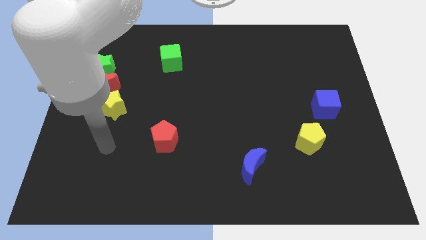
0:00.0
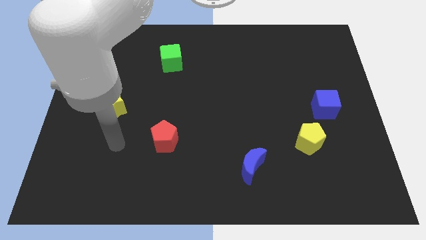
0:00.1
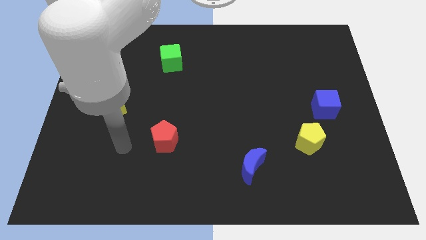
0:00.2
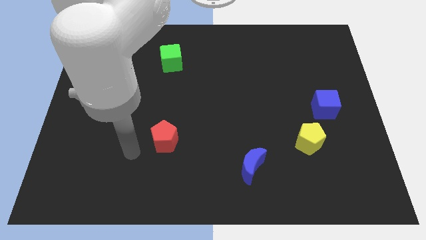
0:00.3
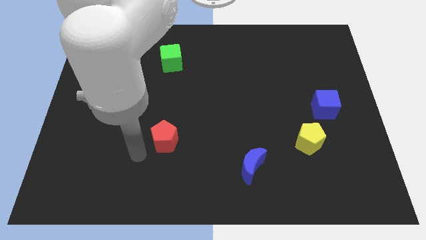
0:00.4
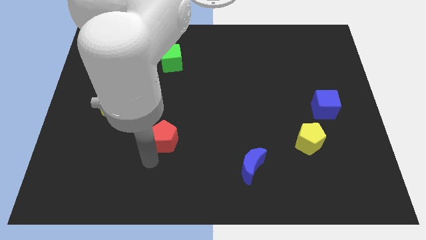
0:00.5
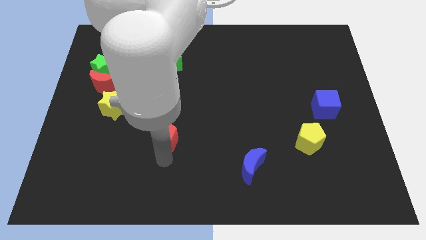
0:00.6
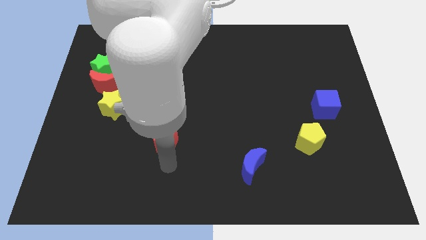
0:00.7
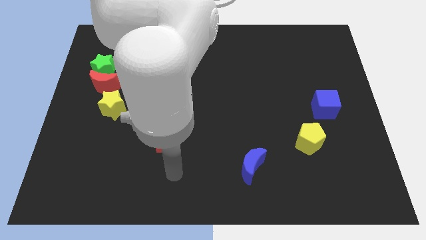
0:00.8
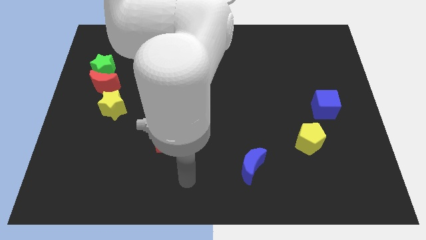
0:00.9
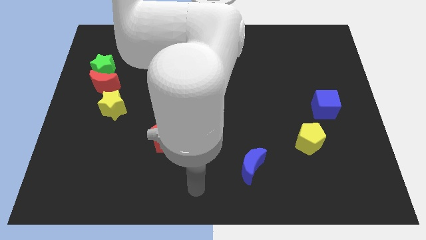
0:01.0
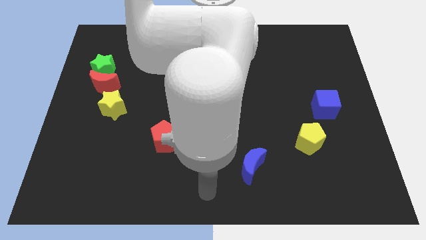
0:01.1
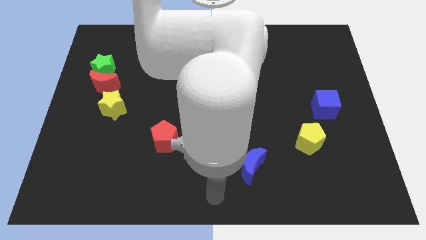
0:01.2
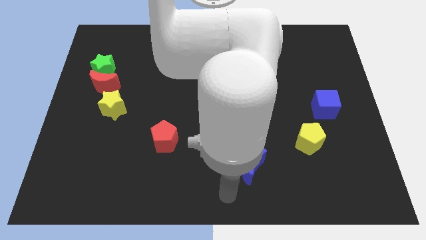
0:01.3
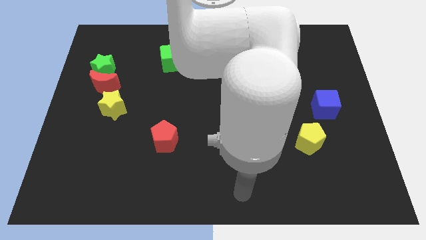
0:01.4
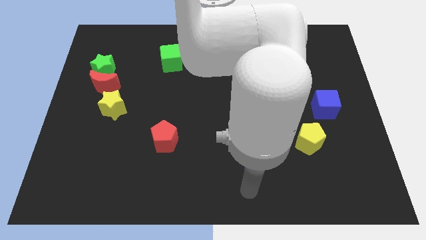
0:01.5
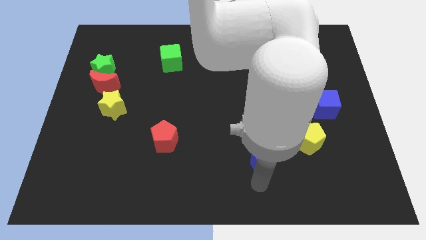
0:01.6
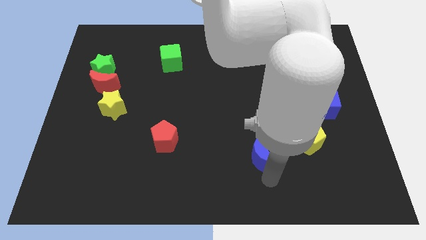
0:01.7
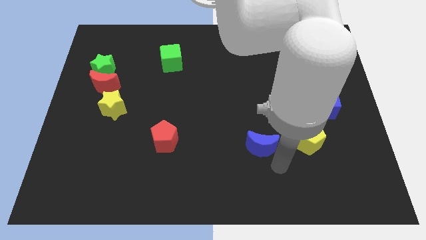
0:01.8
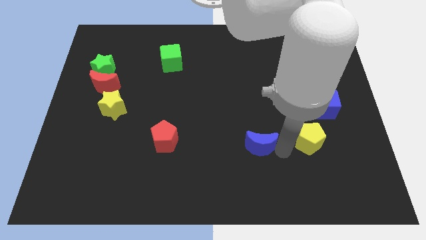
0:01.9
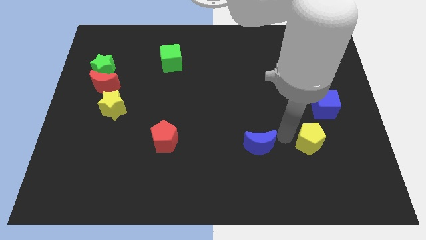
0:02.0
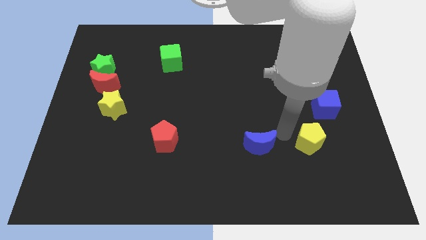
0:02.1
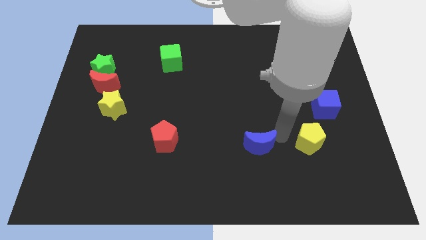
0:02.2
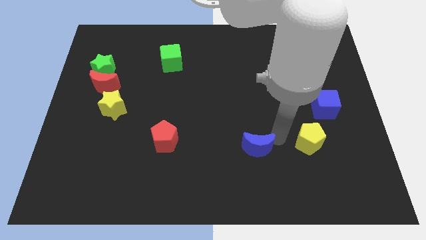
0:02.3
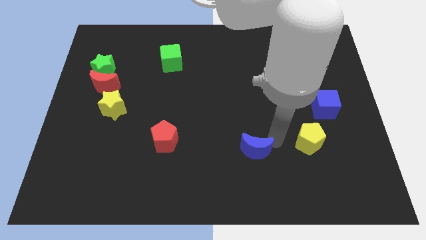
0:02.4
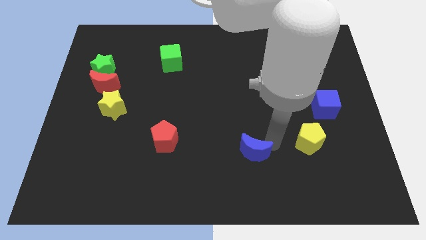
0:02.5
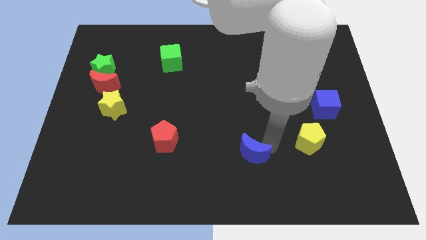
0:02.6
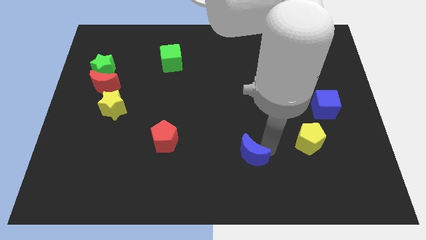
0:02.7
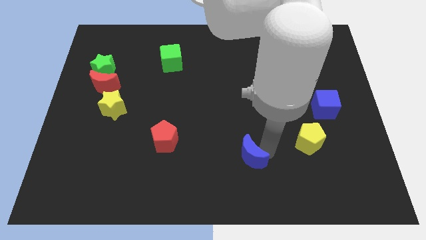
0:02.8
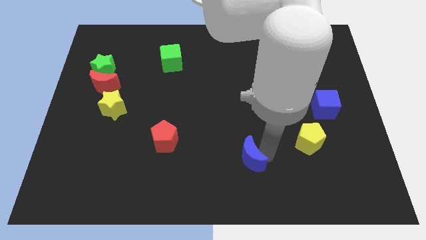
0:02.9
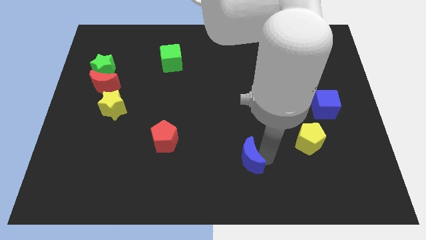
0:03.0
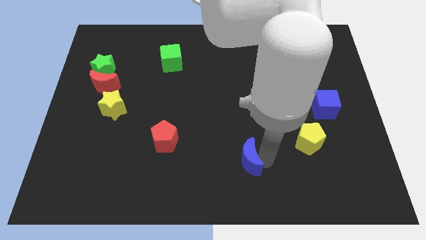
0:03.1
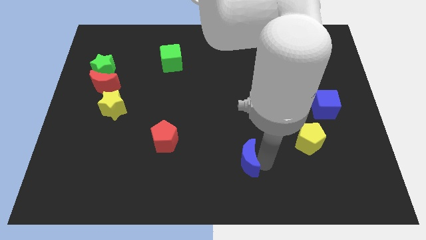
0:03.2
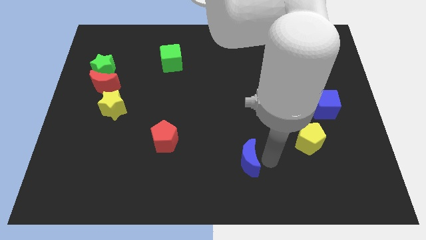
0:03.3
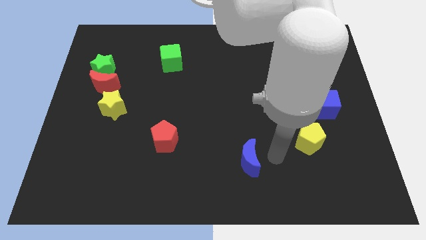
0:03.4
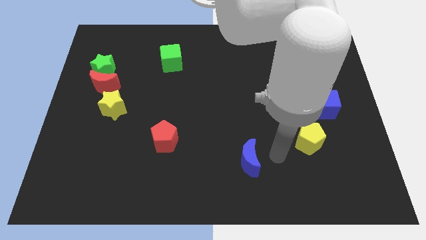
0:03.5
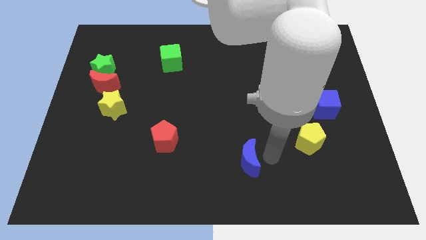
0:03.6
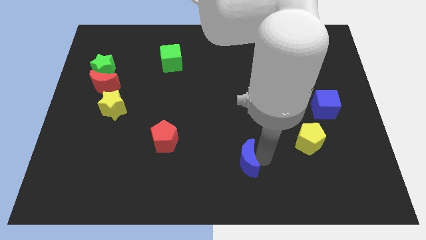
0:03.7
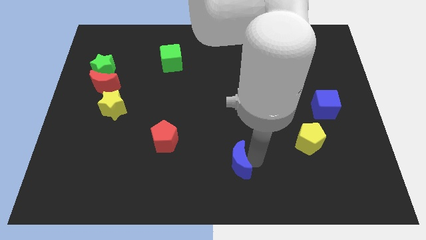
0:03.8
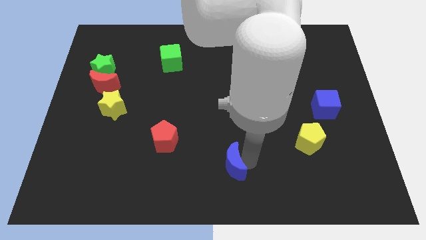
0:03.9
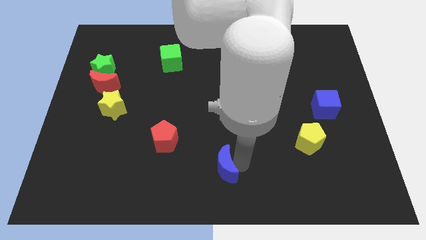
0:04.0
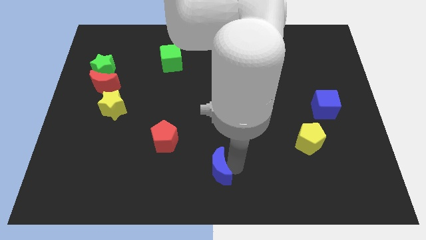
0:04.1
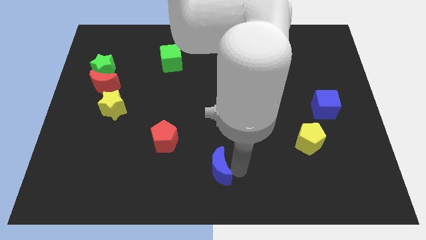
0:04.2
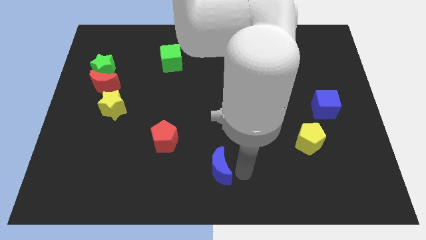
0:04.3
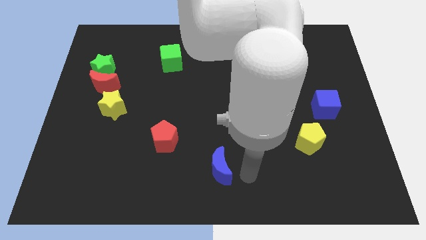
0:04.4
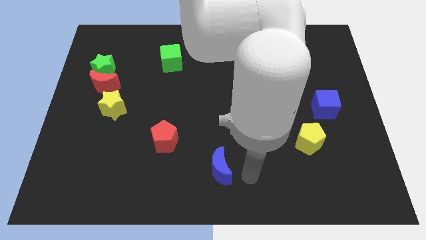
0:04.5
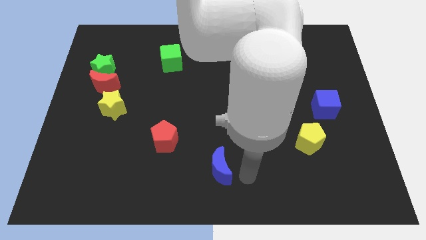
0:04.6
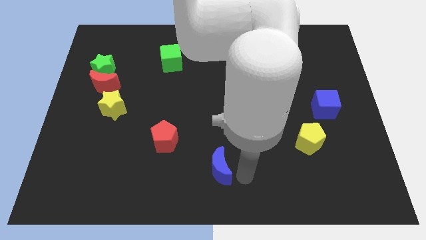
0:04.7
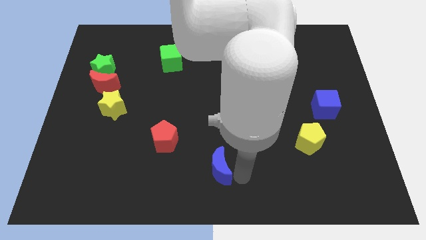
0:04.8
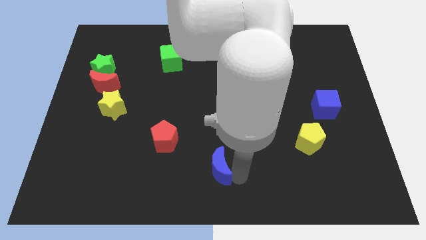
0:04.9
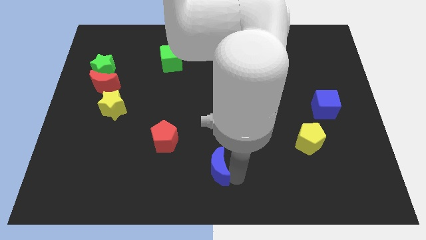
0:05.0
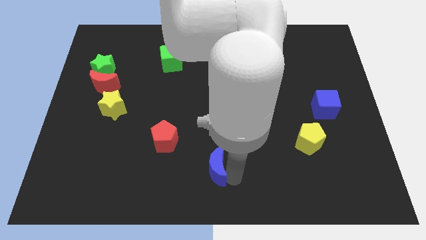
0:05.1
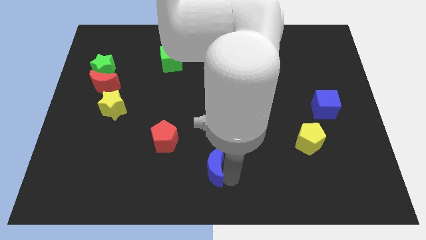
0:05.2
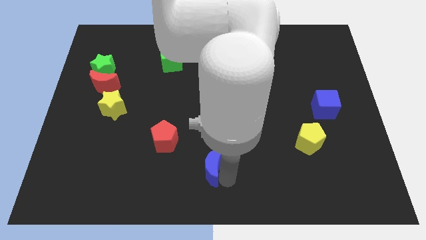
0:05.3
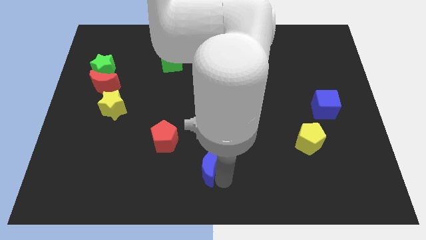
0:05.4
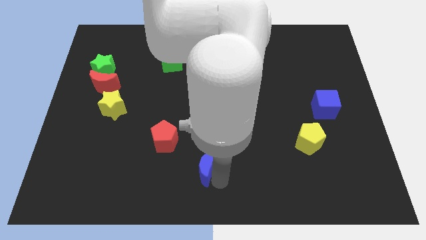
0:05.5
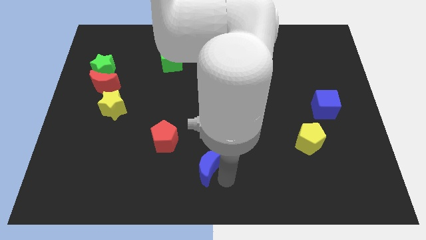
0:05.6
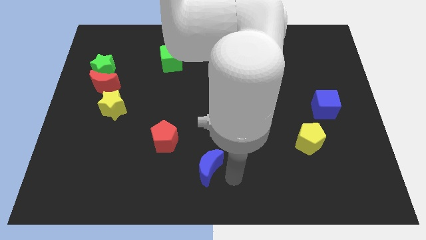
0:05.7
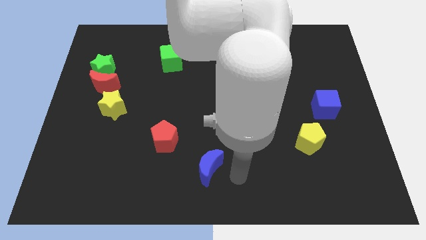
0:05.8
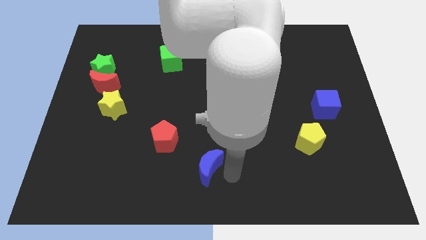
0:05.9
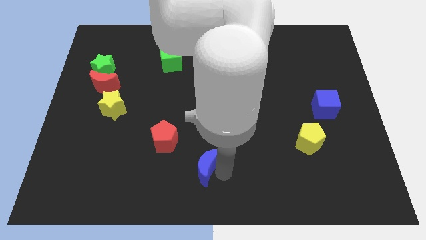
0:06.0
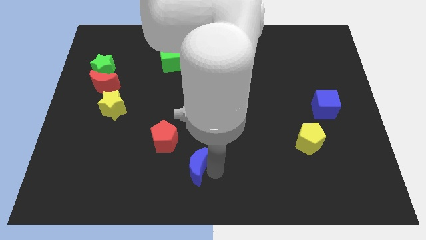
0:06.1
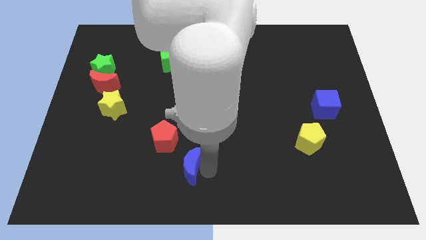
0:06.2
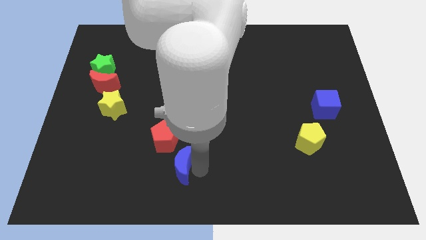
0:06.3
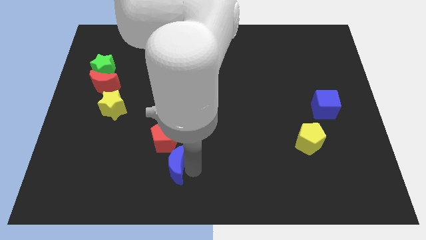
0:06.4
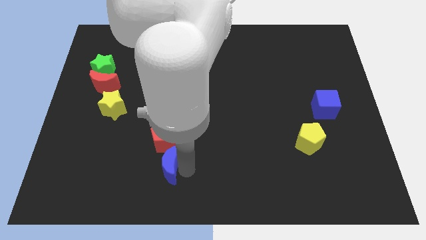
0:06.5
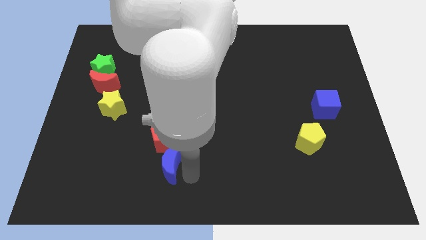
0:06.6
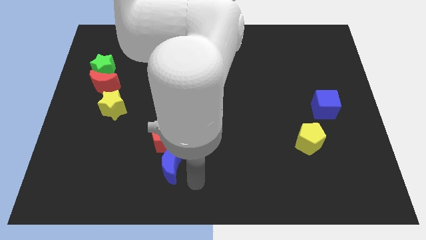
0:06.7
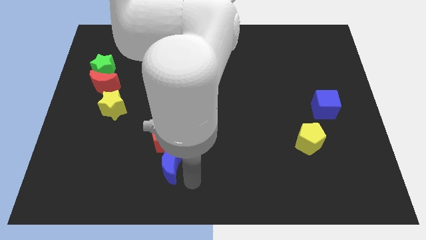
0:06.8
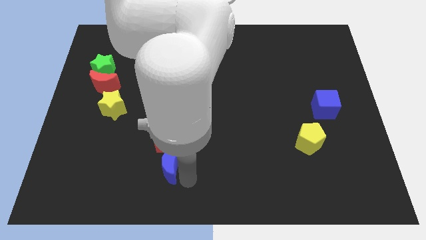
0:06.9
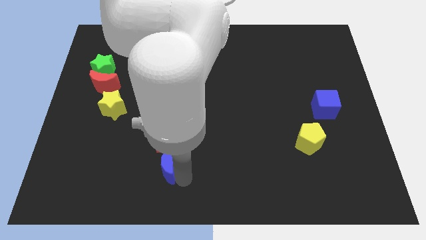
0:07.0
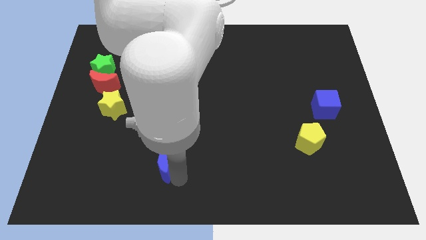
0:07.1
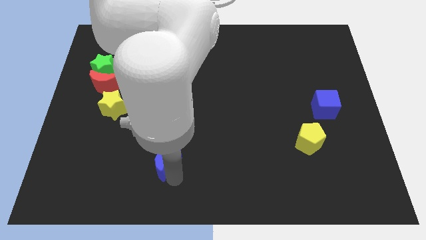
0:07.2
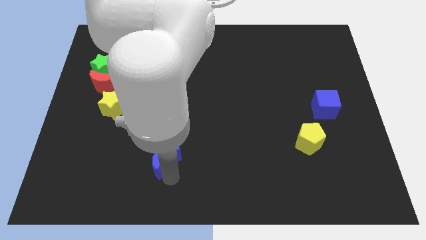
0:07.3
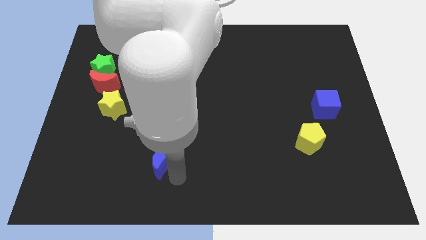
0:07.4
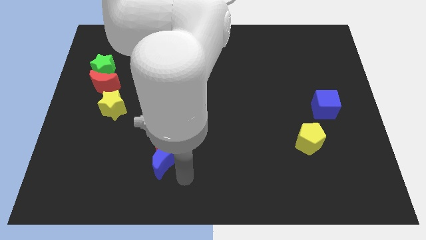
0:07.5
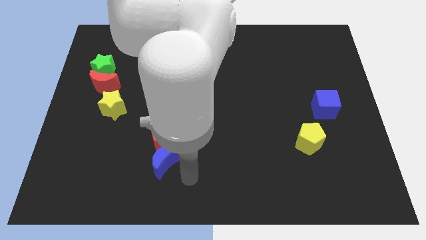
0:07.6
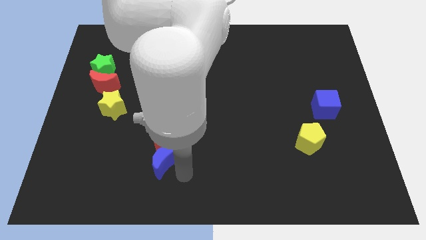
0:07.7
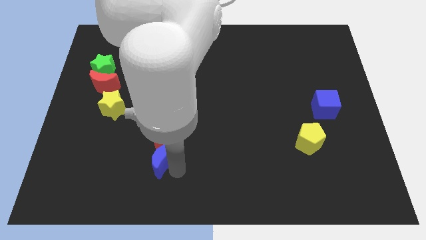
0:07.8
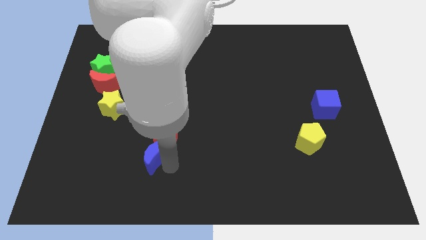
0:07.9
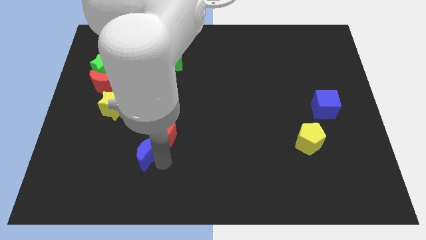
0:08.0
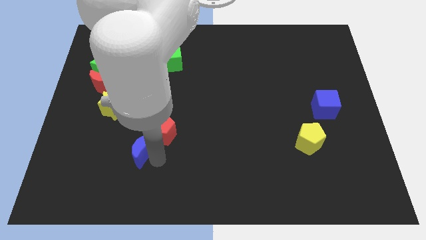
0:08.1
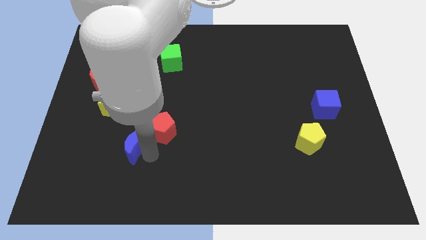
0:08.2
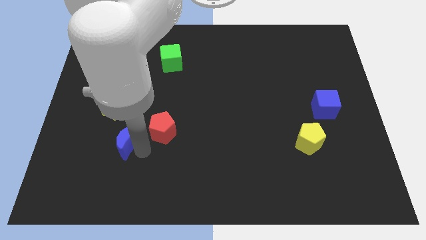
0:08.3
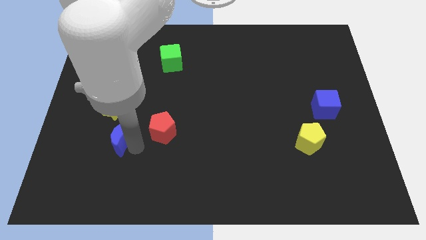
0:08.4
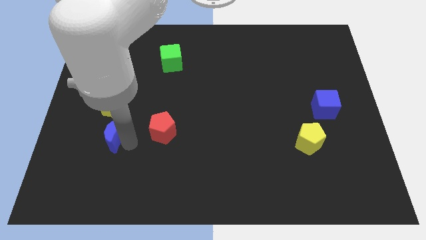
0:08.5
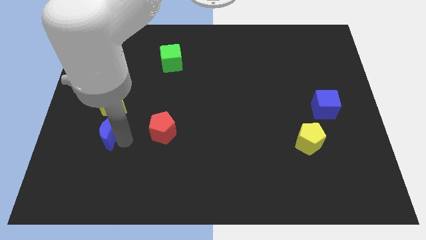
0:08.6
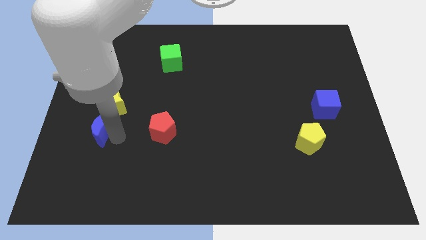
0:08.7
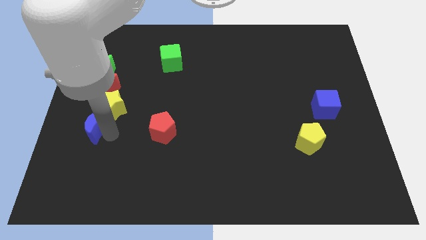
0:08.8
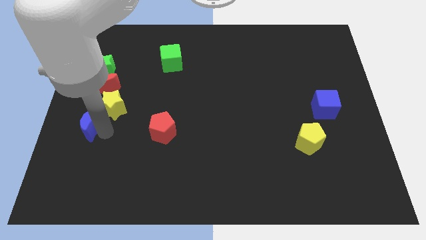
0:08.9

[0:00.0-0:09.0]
push the blue moon to the left side
